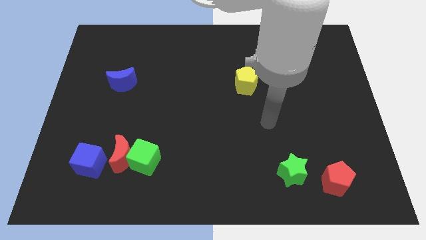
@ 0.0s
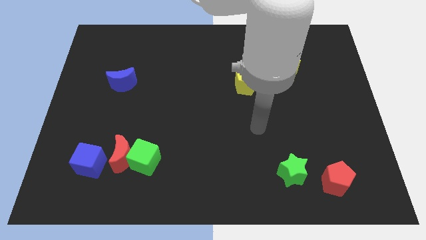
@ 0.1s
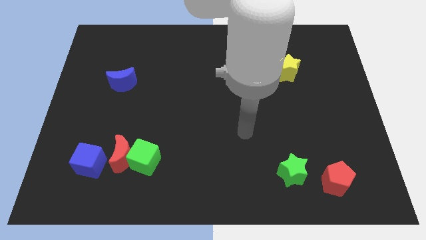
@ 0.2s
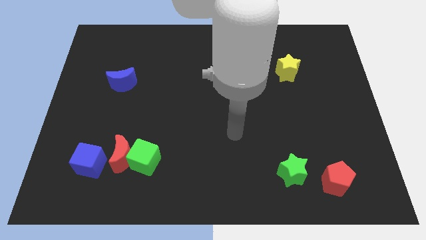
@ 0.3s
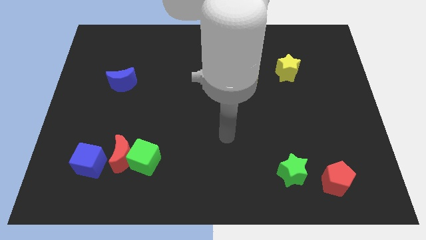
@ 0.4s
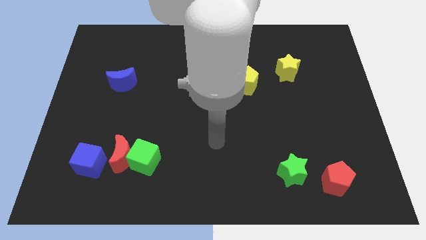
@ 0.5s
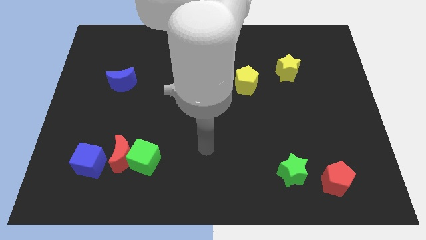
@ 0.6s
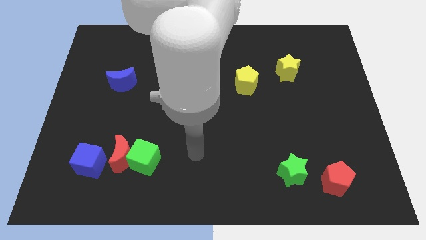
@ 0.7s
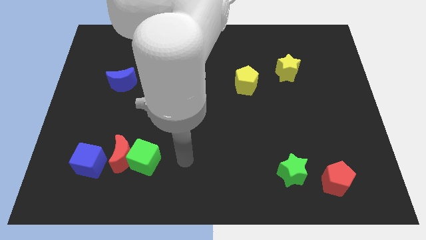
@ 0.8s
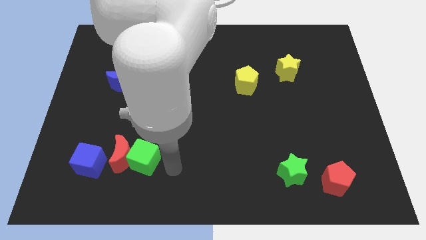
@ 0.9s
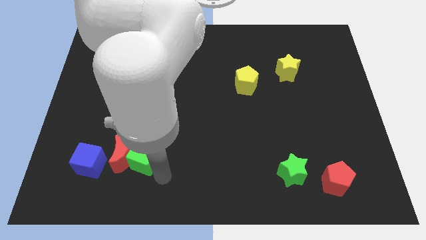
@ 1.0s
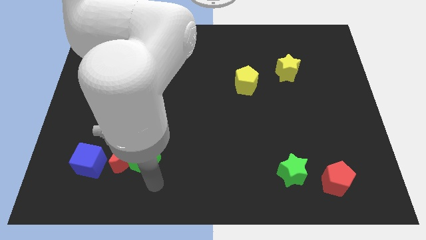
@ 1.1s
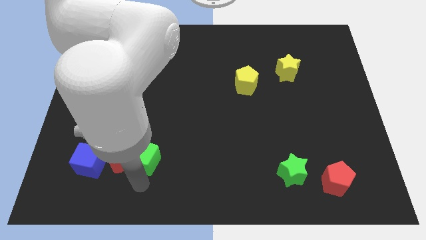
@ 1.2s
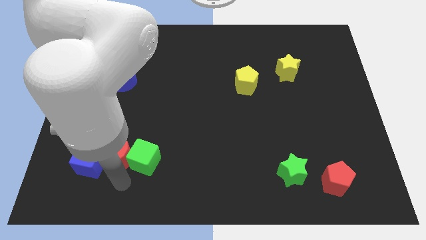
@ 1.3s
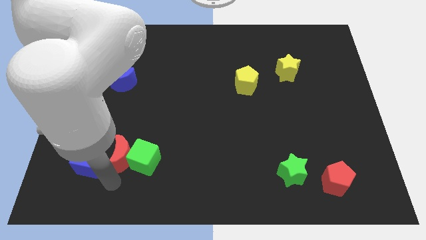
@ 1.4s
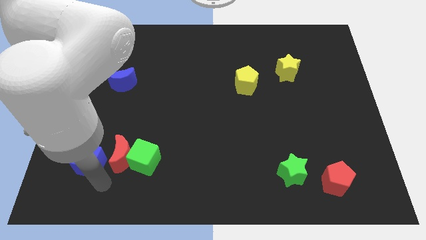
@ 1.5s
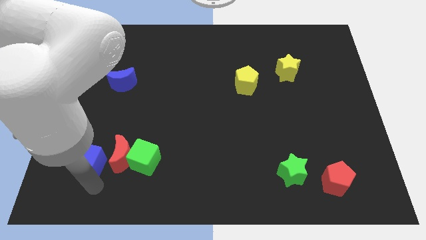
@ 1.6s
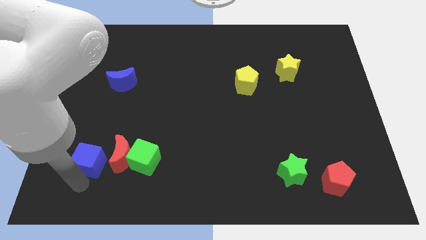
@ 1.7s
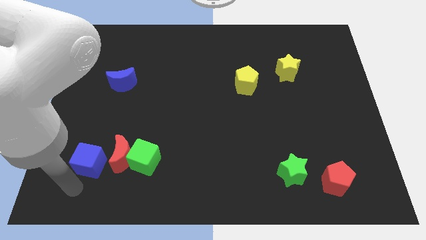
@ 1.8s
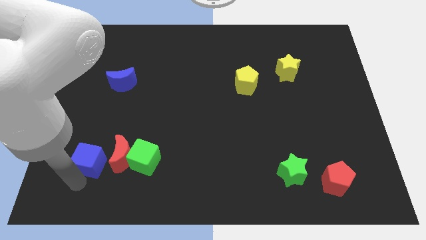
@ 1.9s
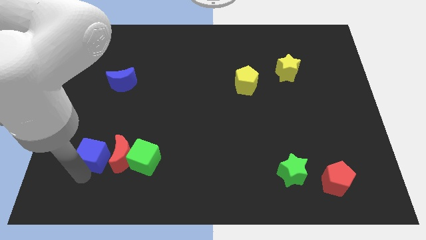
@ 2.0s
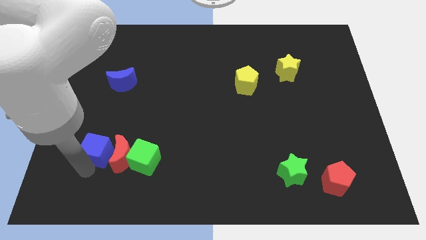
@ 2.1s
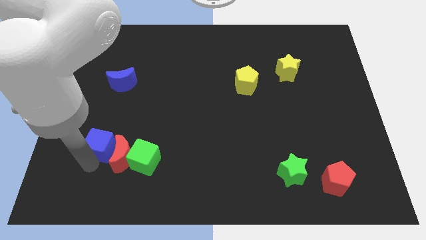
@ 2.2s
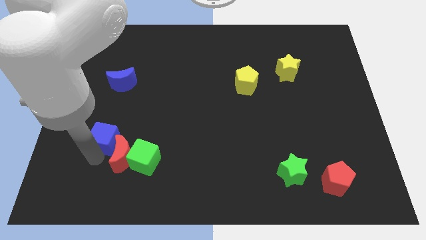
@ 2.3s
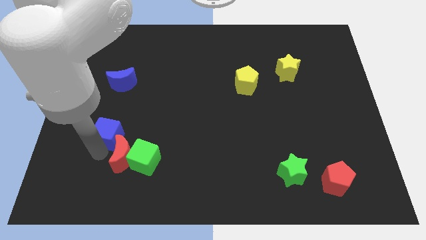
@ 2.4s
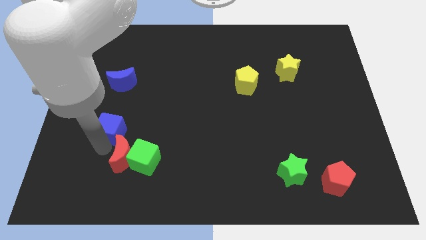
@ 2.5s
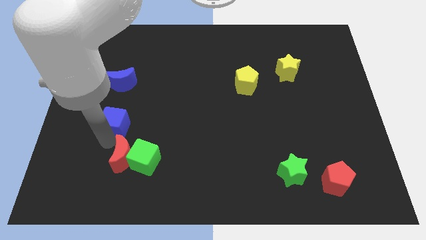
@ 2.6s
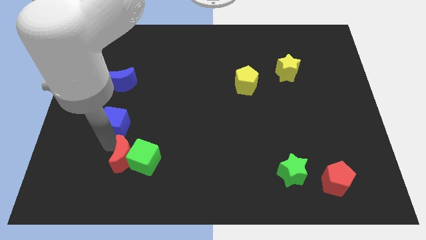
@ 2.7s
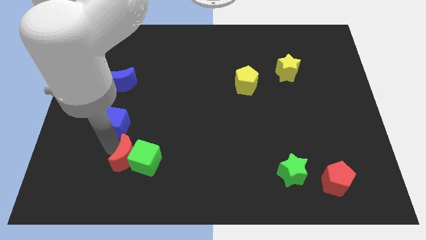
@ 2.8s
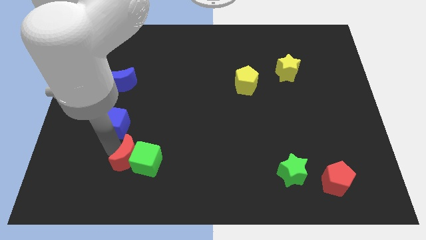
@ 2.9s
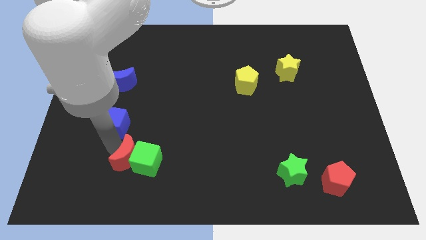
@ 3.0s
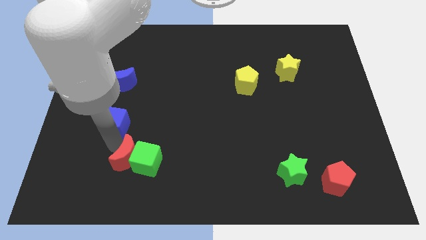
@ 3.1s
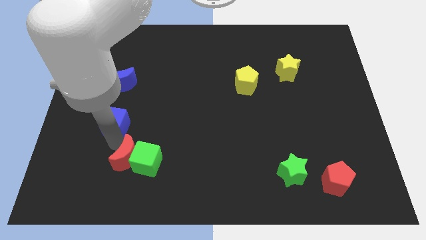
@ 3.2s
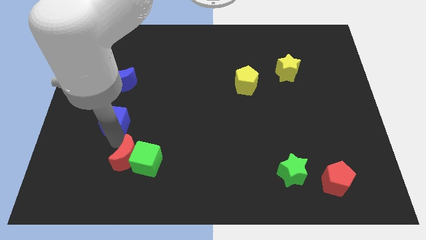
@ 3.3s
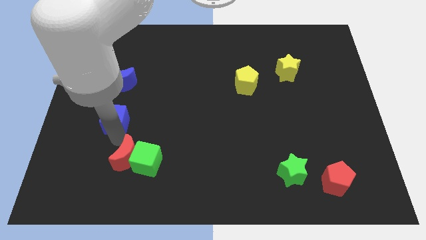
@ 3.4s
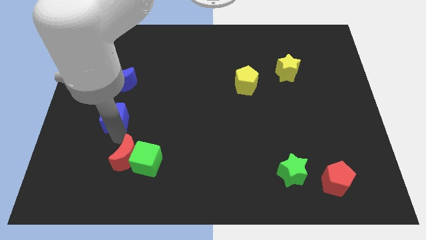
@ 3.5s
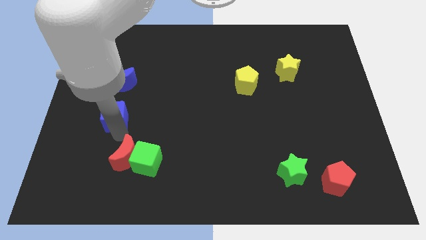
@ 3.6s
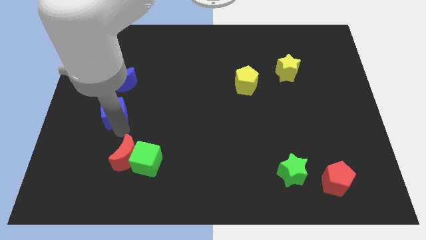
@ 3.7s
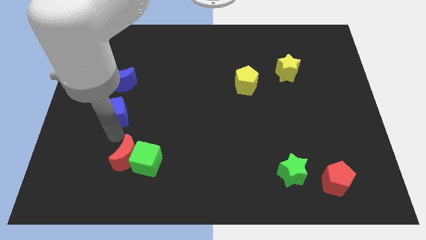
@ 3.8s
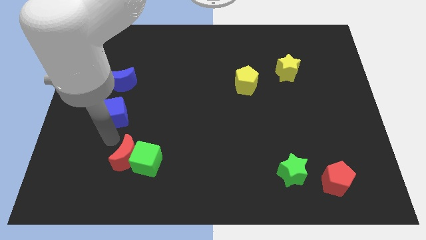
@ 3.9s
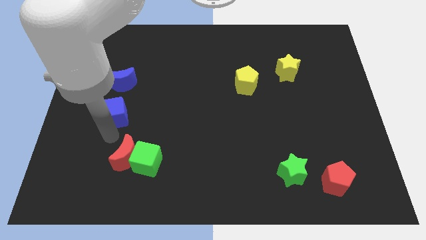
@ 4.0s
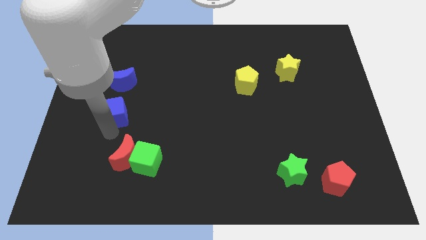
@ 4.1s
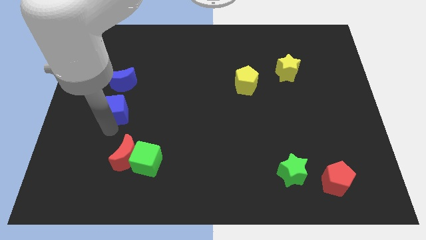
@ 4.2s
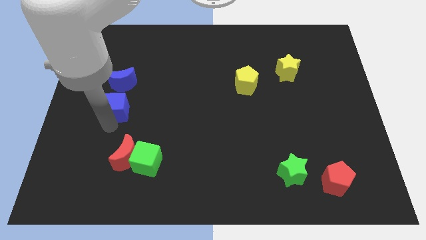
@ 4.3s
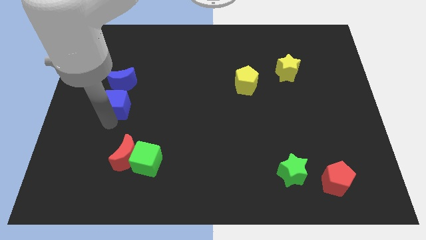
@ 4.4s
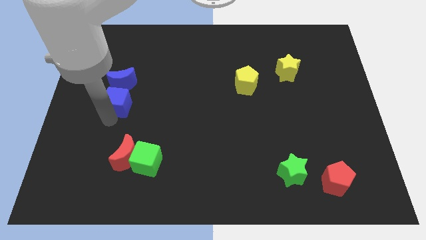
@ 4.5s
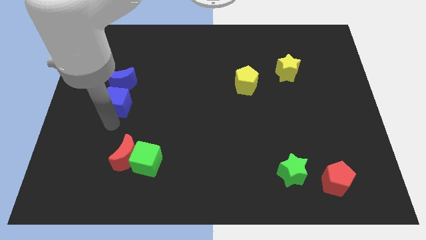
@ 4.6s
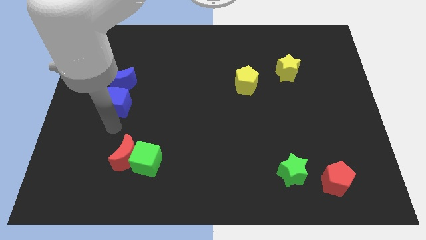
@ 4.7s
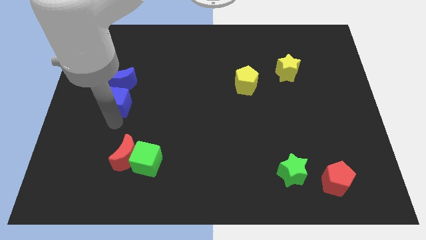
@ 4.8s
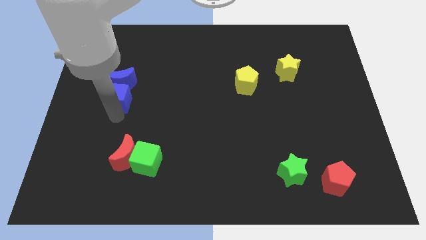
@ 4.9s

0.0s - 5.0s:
push the blue cube towards the blue moon

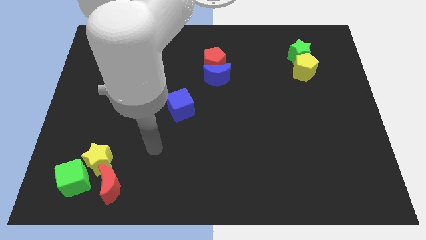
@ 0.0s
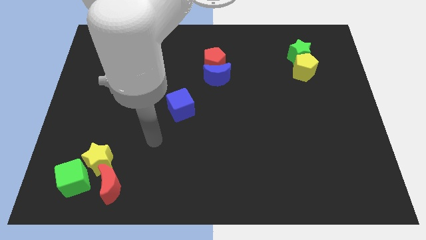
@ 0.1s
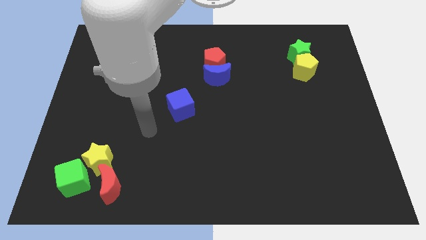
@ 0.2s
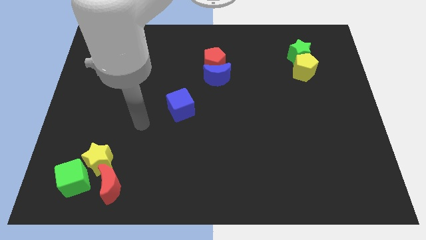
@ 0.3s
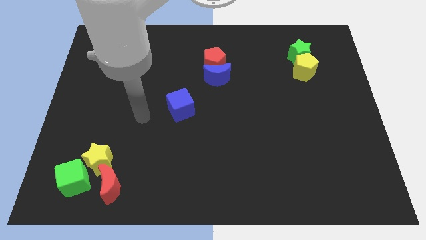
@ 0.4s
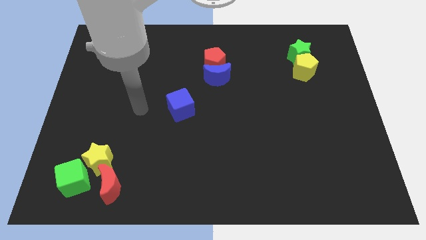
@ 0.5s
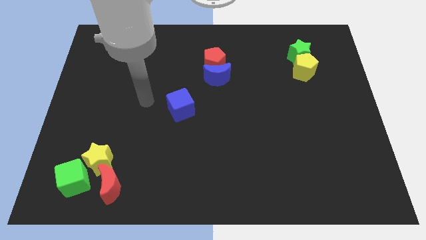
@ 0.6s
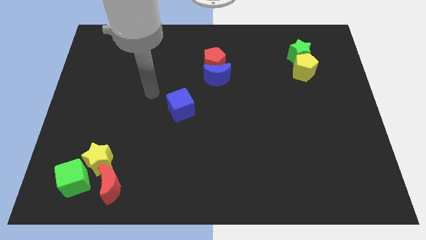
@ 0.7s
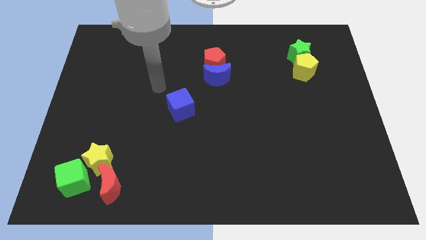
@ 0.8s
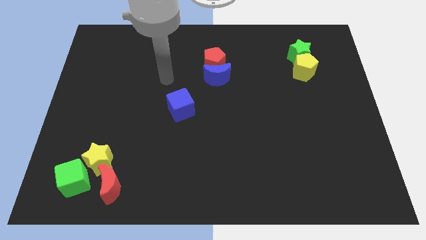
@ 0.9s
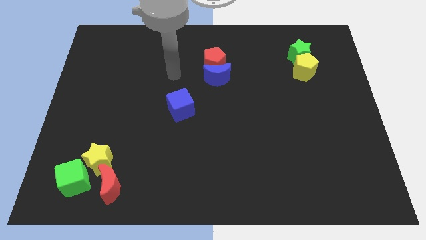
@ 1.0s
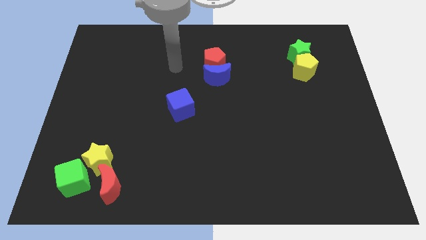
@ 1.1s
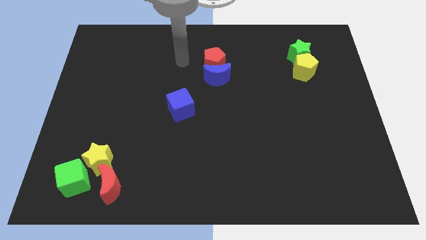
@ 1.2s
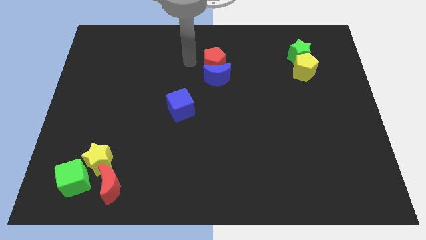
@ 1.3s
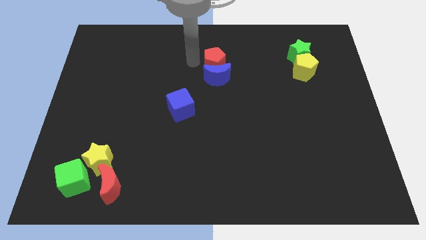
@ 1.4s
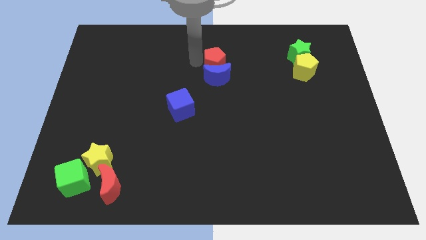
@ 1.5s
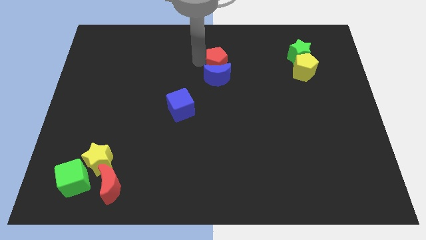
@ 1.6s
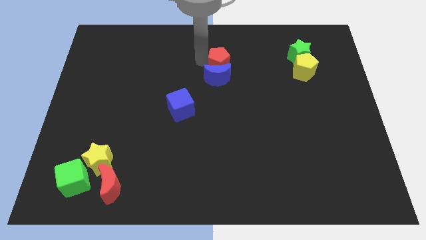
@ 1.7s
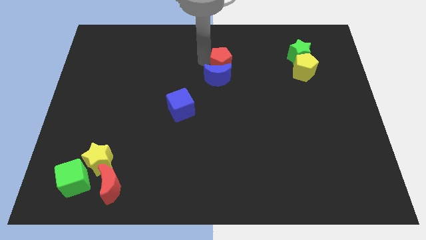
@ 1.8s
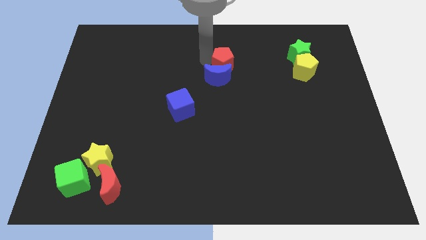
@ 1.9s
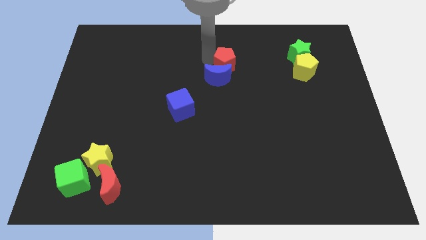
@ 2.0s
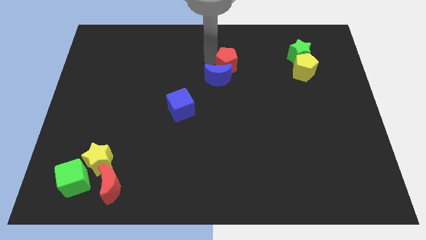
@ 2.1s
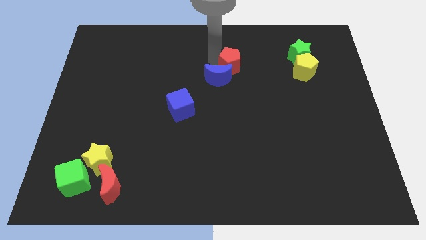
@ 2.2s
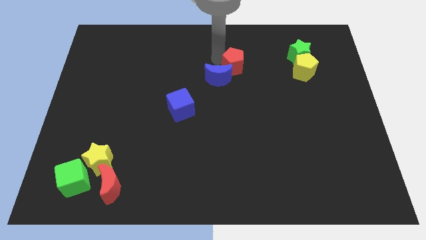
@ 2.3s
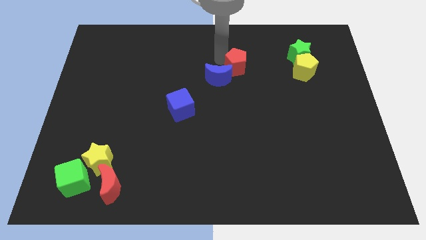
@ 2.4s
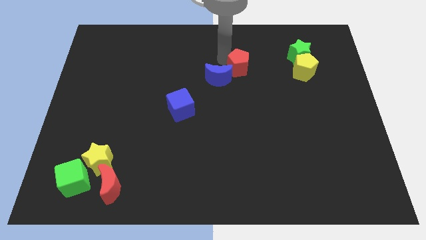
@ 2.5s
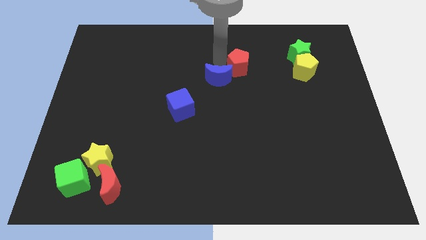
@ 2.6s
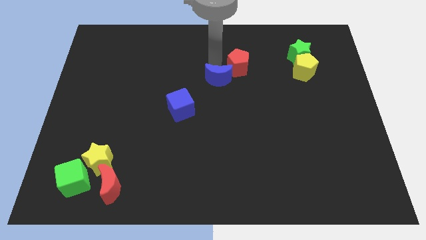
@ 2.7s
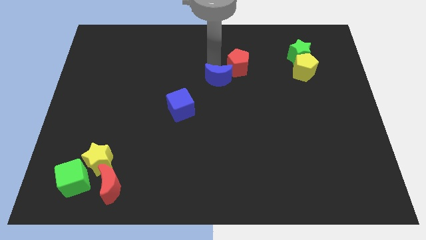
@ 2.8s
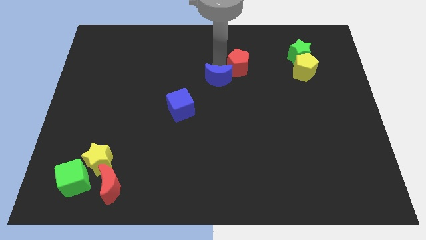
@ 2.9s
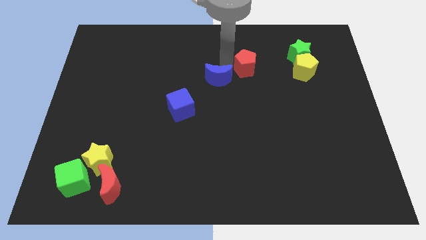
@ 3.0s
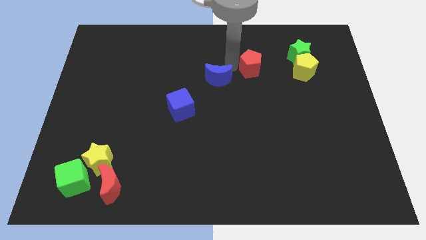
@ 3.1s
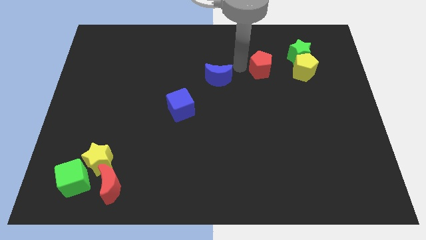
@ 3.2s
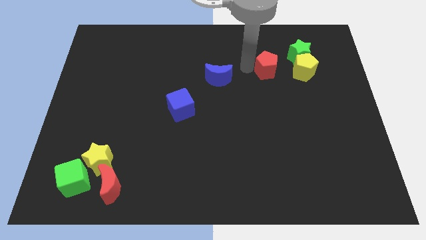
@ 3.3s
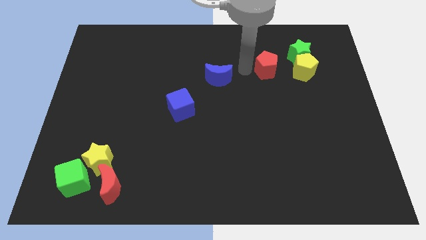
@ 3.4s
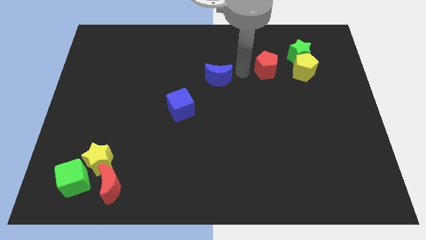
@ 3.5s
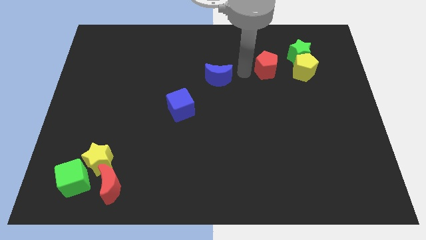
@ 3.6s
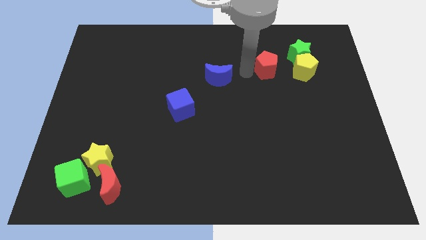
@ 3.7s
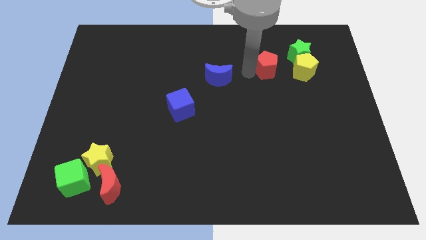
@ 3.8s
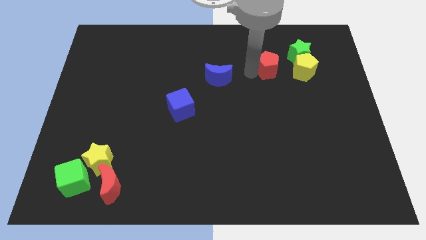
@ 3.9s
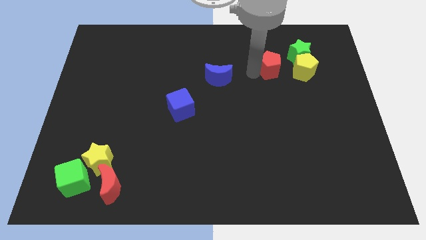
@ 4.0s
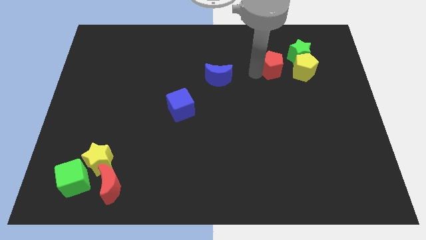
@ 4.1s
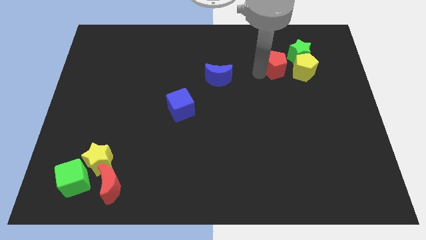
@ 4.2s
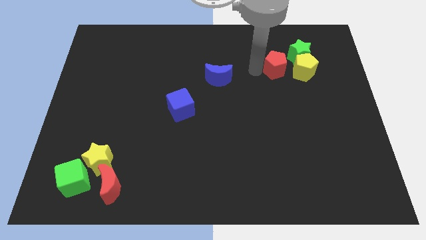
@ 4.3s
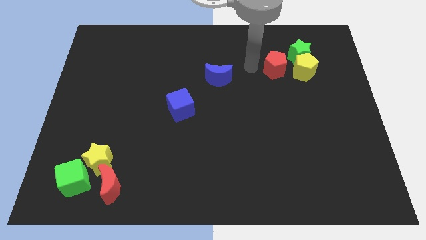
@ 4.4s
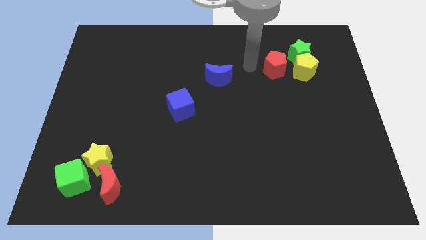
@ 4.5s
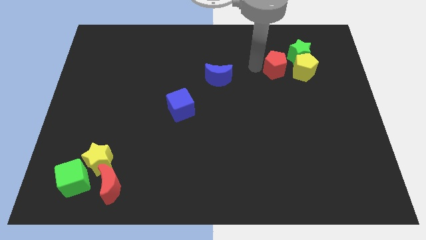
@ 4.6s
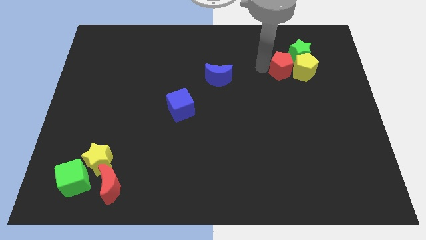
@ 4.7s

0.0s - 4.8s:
slide the red pentagon next to the yellow pentagon
